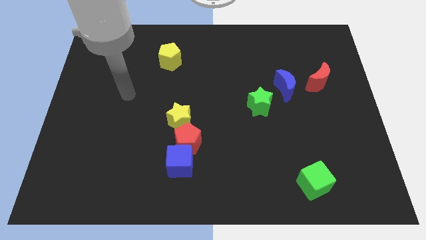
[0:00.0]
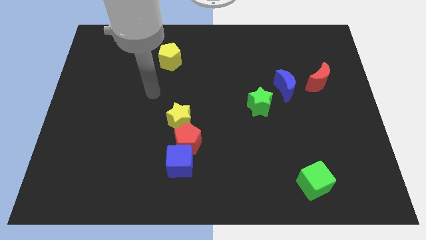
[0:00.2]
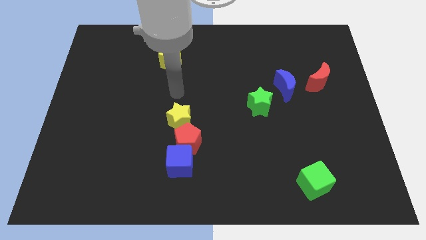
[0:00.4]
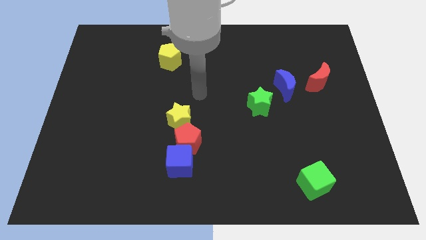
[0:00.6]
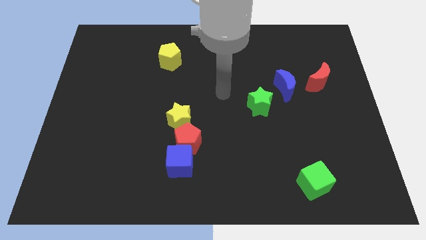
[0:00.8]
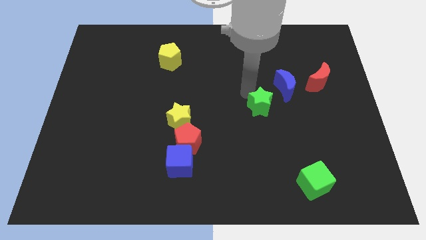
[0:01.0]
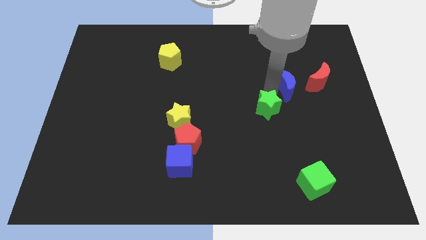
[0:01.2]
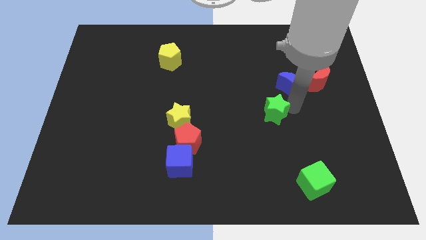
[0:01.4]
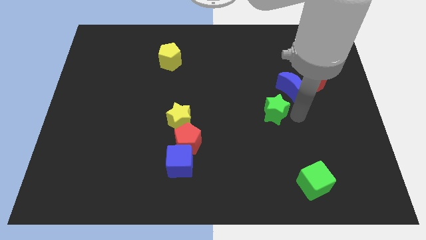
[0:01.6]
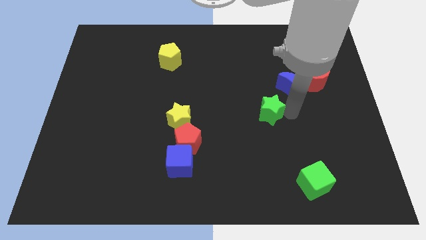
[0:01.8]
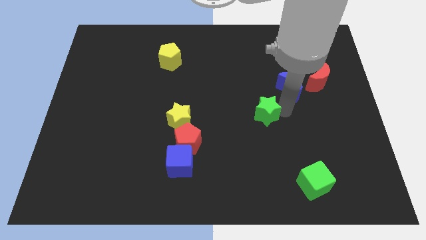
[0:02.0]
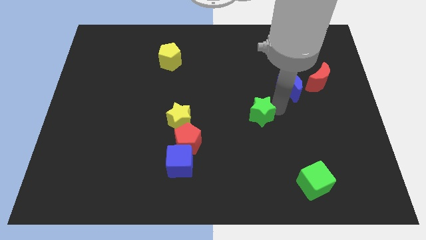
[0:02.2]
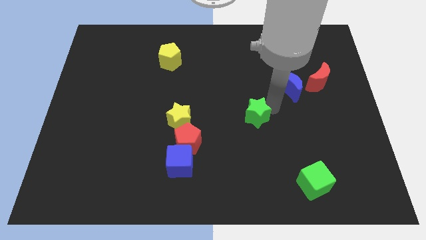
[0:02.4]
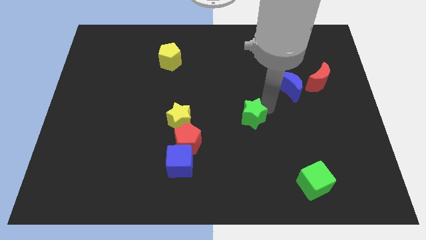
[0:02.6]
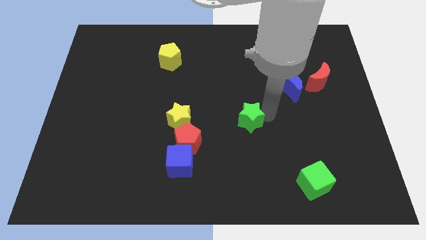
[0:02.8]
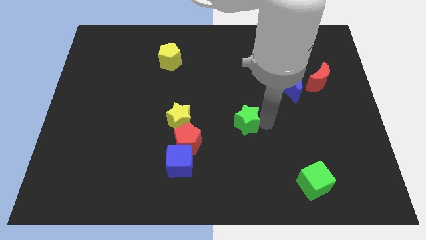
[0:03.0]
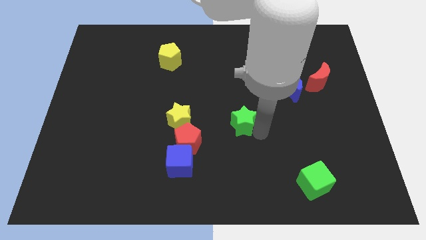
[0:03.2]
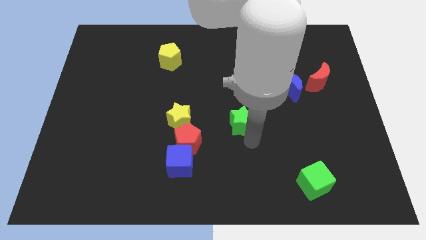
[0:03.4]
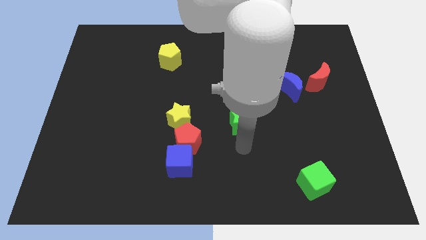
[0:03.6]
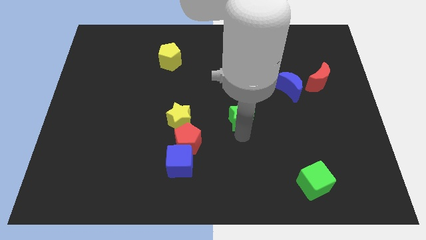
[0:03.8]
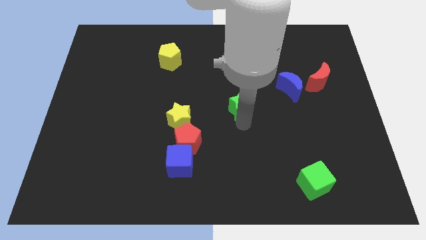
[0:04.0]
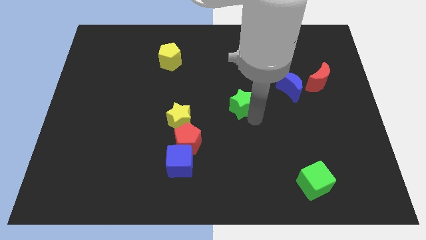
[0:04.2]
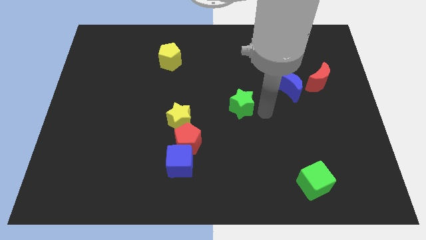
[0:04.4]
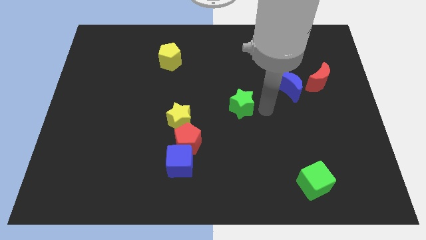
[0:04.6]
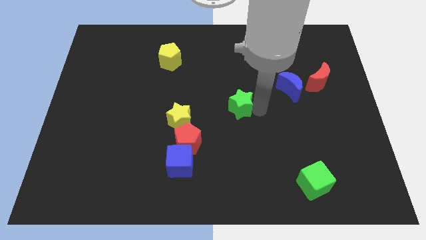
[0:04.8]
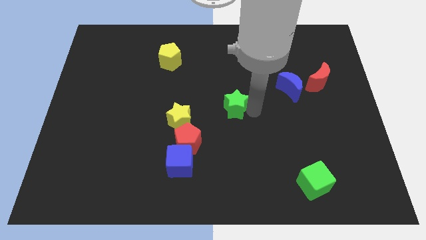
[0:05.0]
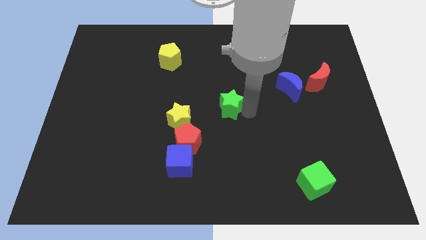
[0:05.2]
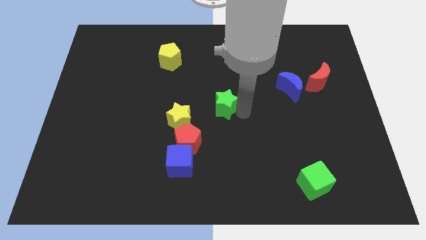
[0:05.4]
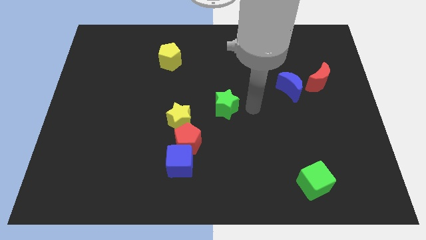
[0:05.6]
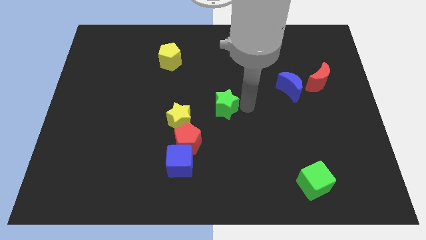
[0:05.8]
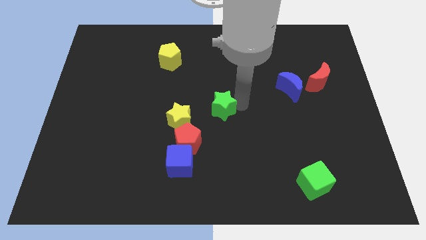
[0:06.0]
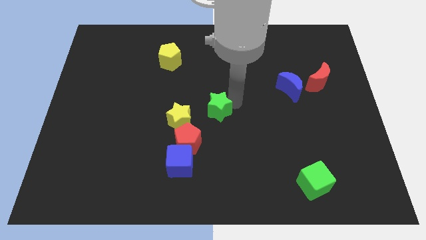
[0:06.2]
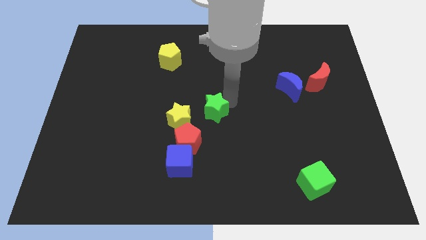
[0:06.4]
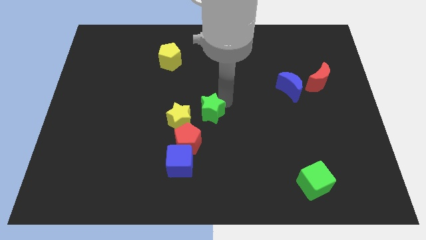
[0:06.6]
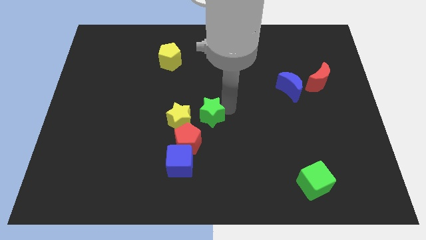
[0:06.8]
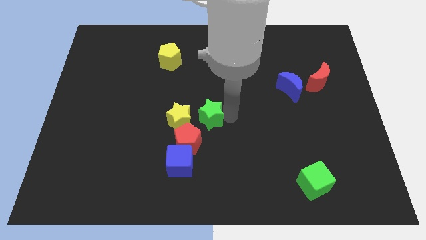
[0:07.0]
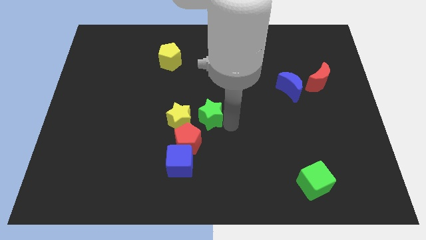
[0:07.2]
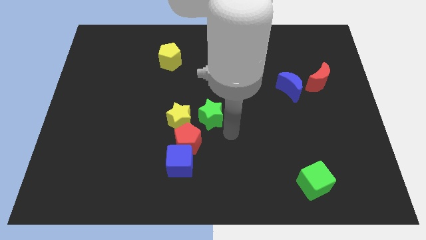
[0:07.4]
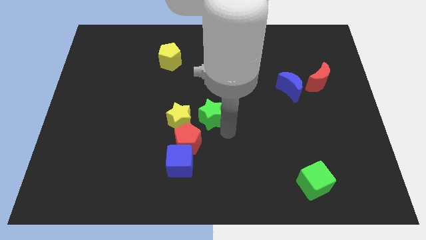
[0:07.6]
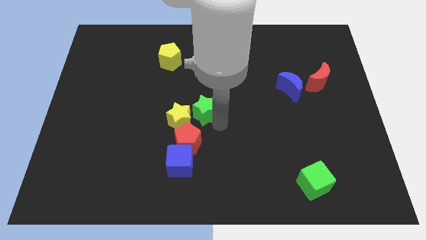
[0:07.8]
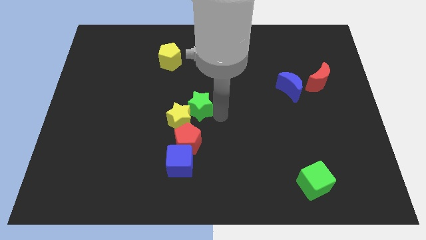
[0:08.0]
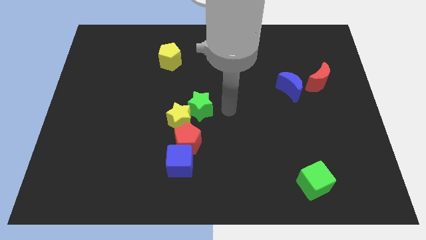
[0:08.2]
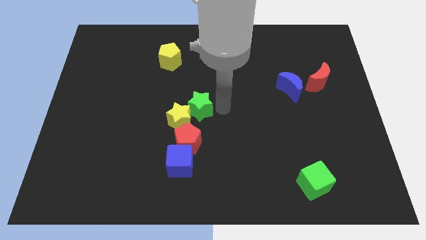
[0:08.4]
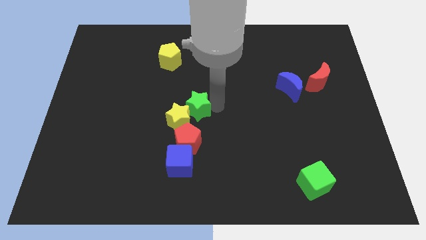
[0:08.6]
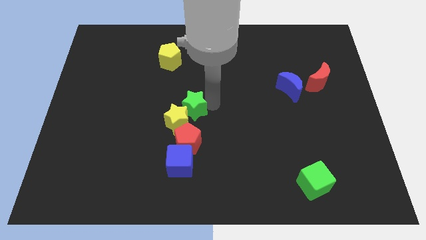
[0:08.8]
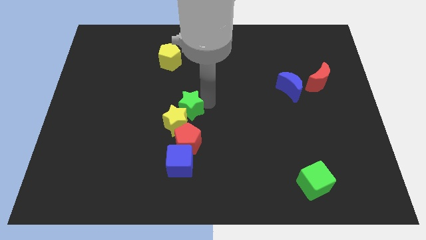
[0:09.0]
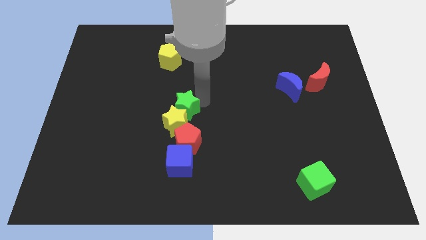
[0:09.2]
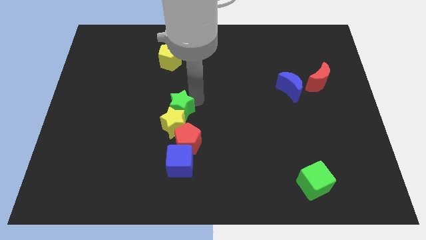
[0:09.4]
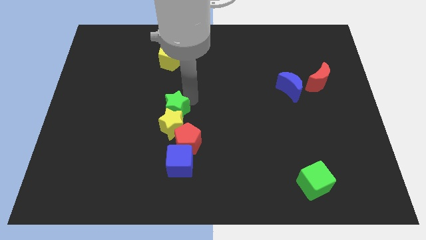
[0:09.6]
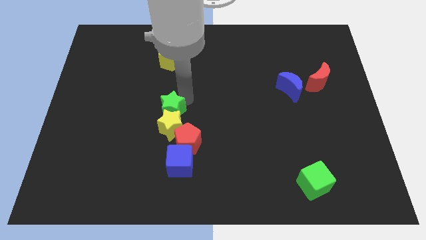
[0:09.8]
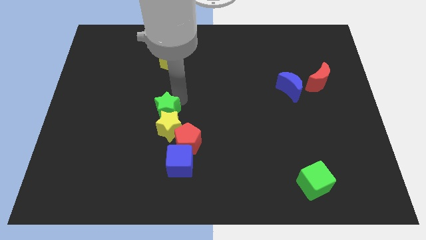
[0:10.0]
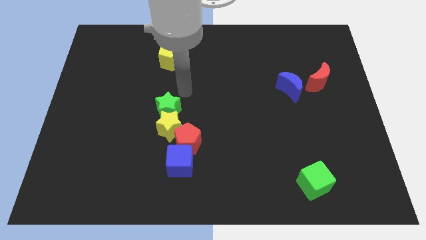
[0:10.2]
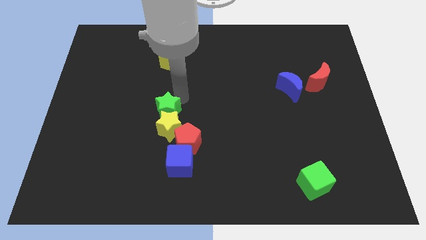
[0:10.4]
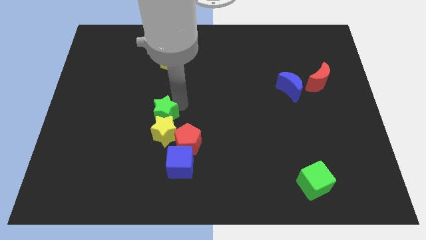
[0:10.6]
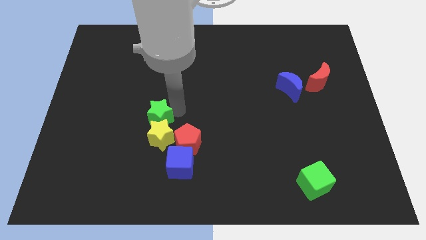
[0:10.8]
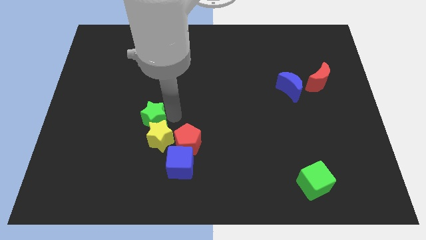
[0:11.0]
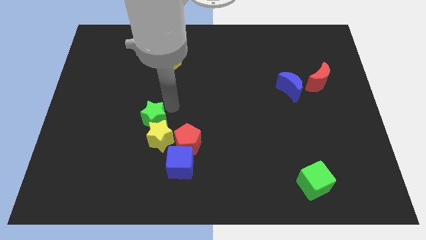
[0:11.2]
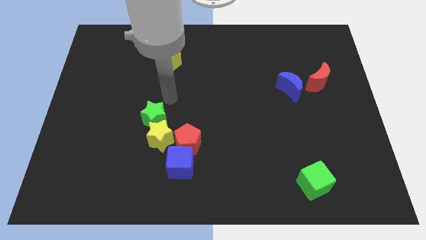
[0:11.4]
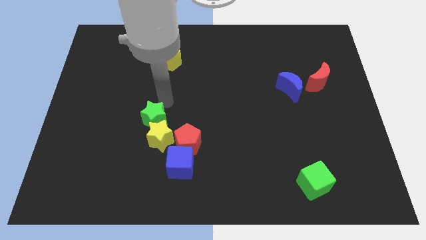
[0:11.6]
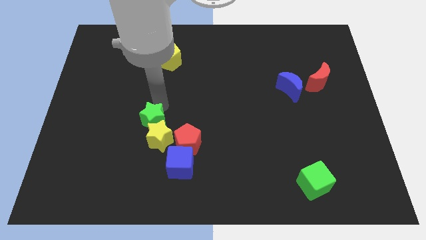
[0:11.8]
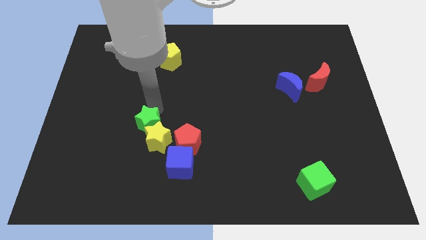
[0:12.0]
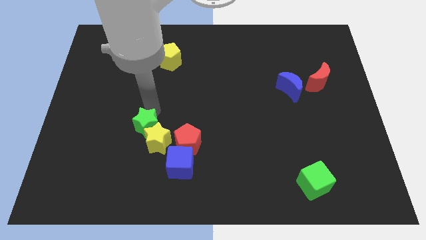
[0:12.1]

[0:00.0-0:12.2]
slide the green star to the left of the red pentagon

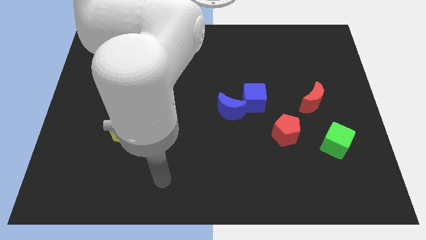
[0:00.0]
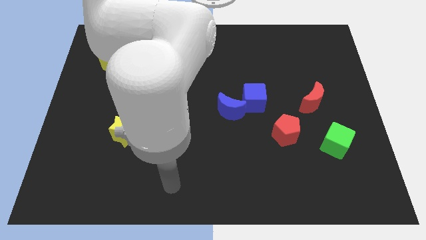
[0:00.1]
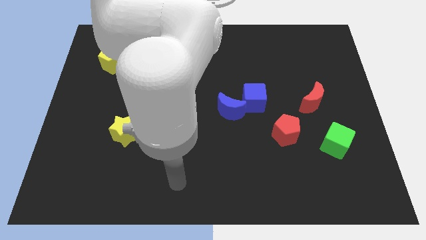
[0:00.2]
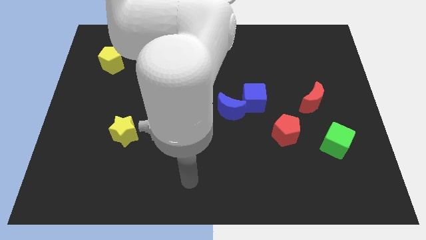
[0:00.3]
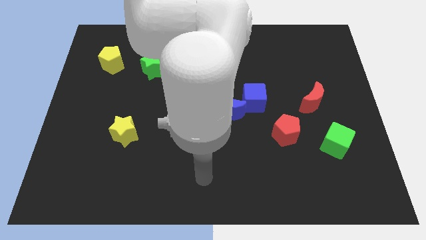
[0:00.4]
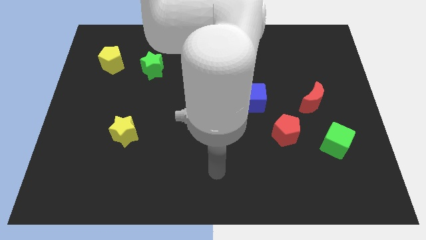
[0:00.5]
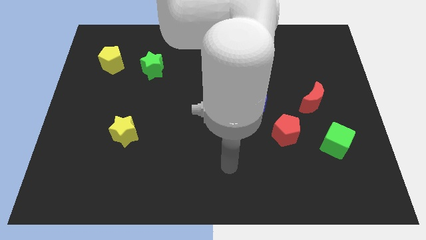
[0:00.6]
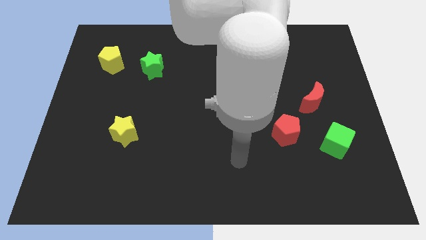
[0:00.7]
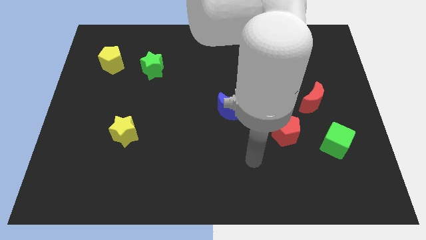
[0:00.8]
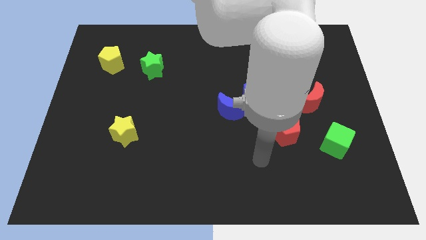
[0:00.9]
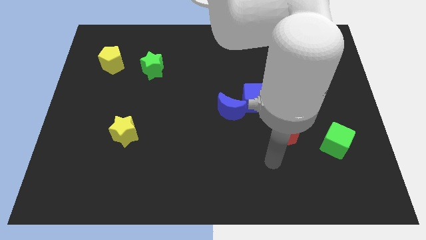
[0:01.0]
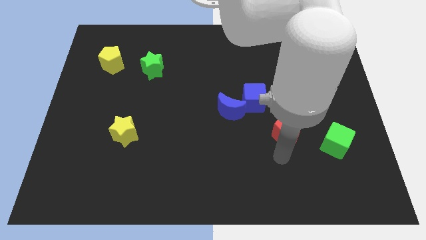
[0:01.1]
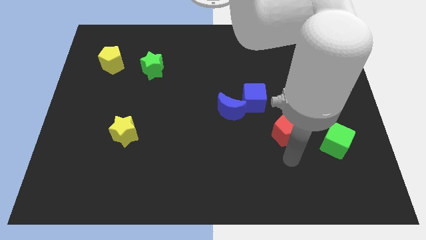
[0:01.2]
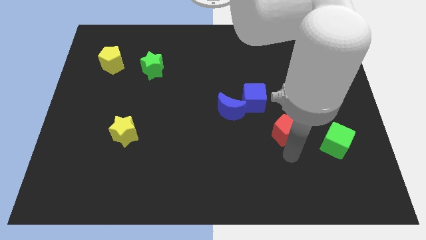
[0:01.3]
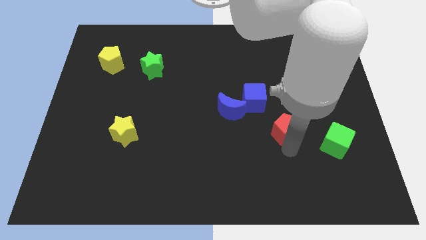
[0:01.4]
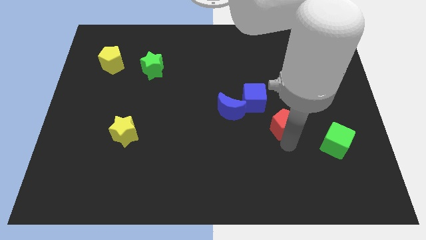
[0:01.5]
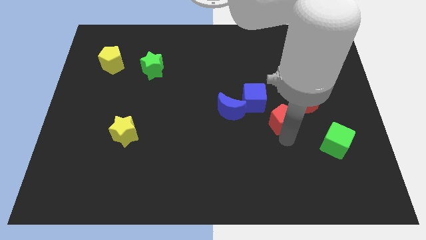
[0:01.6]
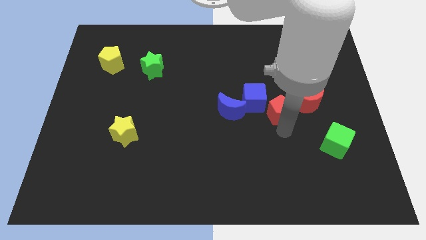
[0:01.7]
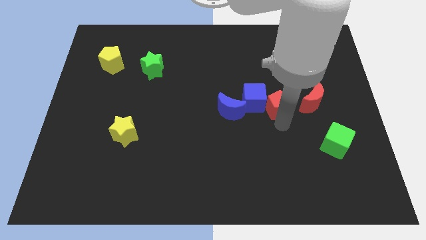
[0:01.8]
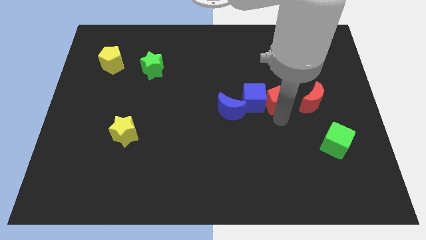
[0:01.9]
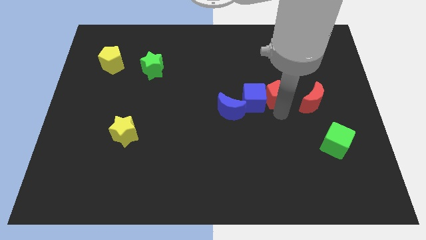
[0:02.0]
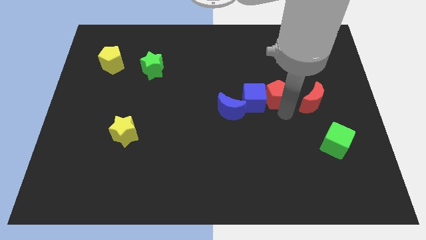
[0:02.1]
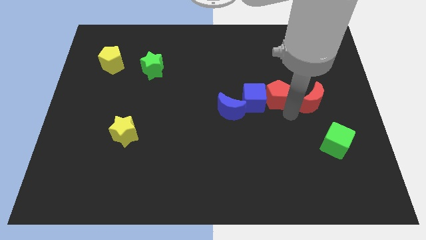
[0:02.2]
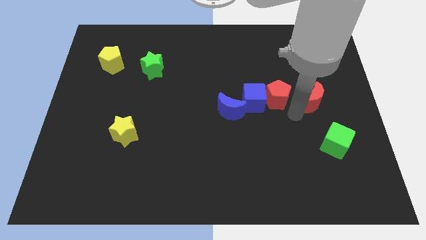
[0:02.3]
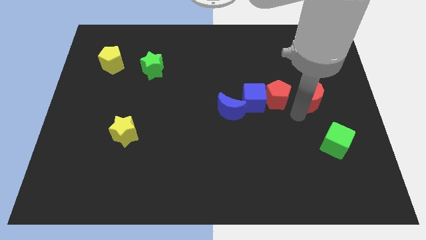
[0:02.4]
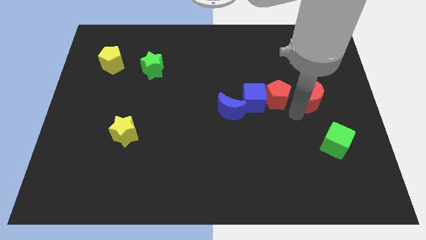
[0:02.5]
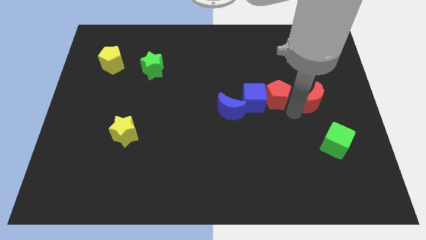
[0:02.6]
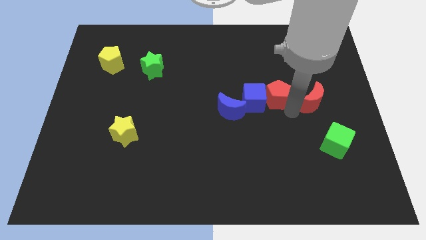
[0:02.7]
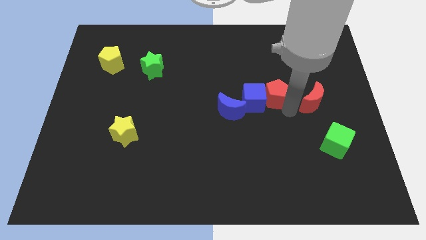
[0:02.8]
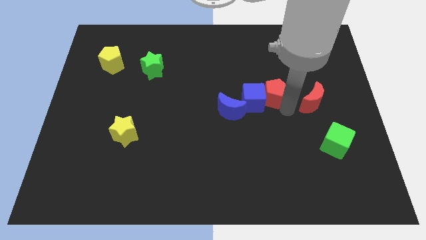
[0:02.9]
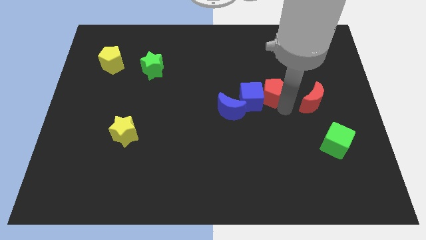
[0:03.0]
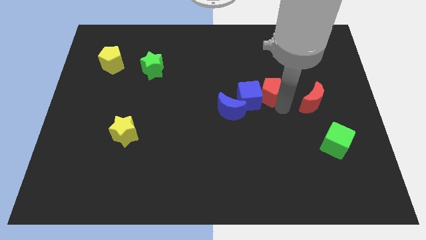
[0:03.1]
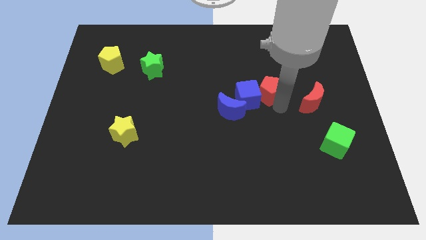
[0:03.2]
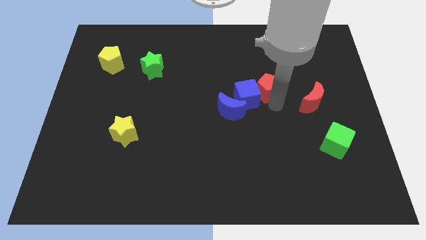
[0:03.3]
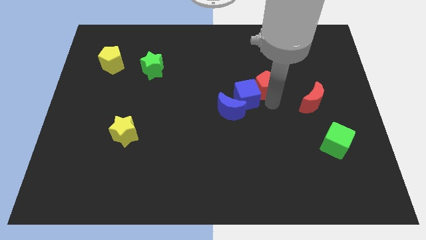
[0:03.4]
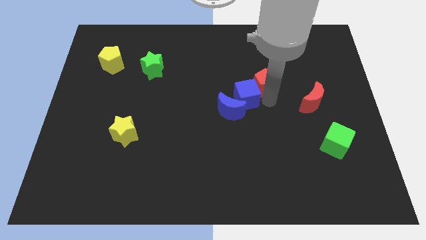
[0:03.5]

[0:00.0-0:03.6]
slide the red pentagon to the top side of the blue cube
